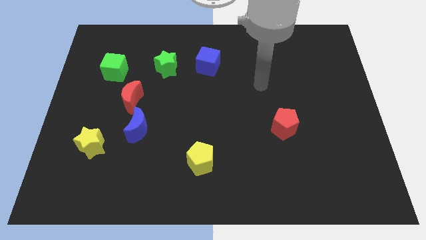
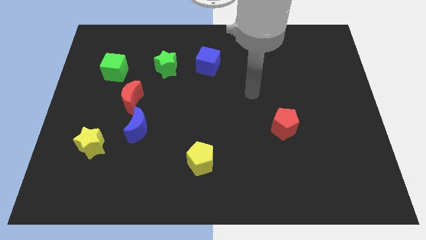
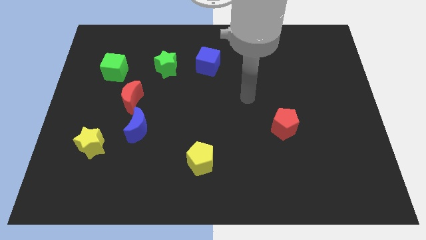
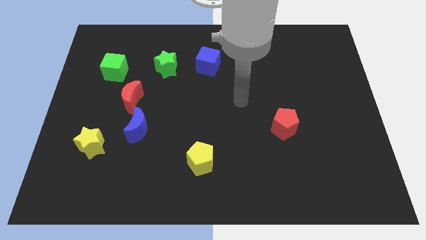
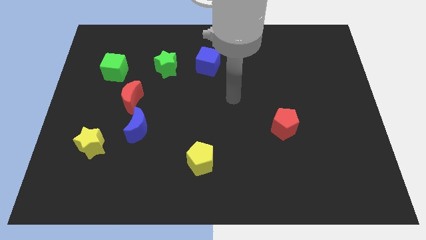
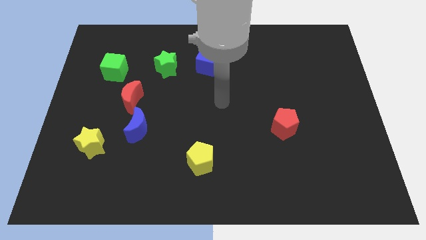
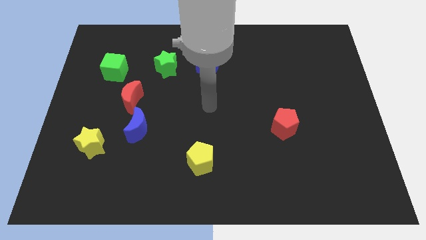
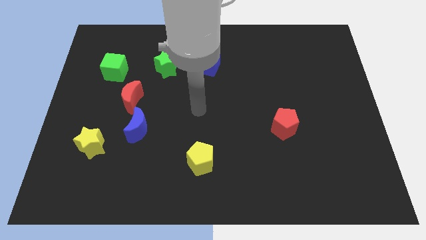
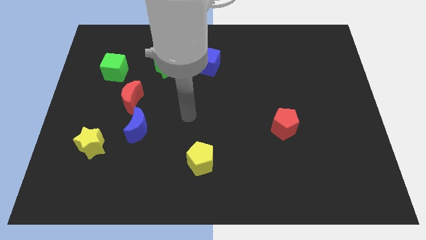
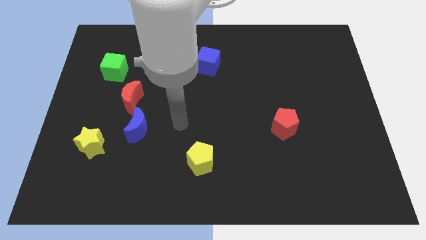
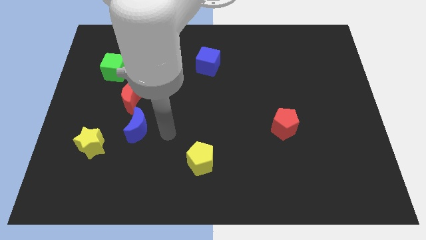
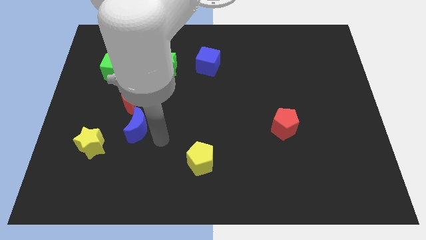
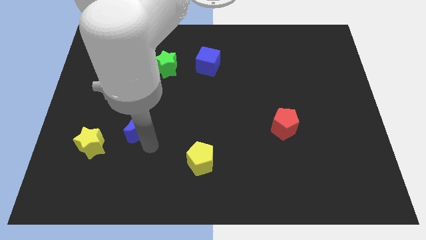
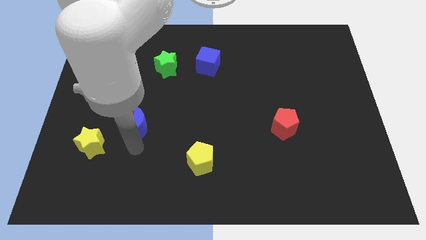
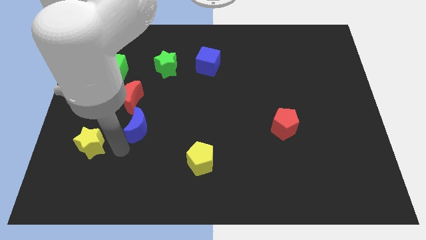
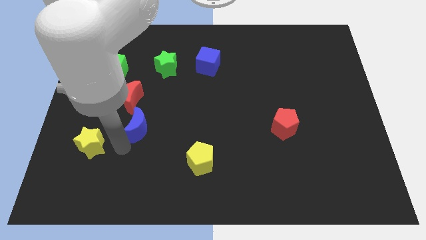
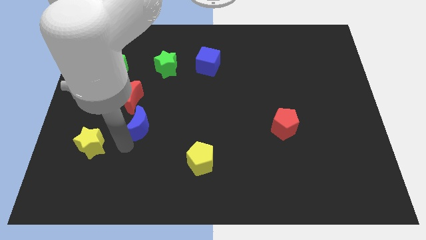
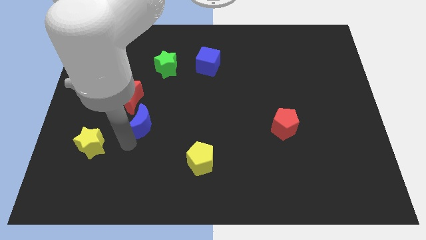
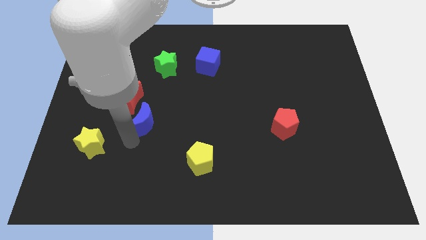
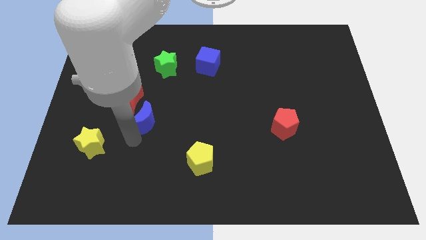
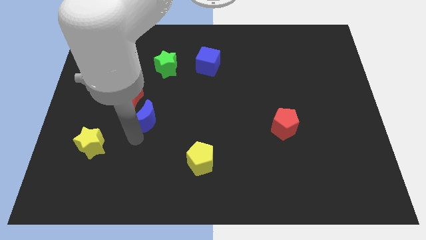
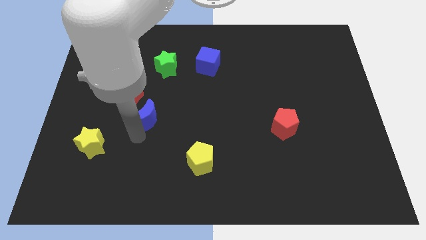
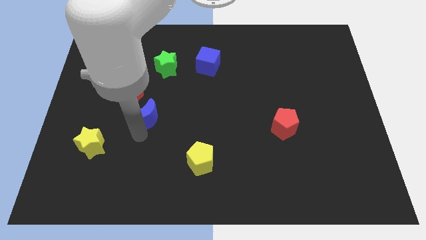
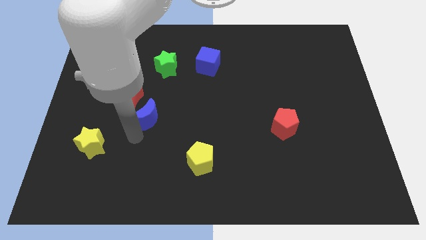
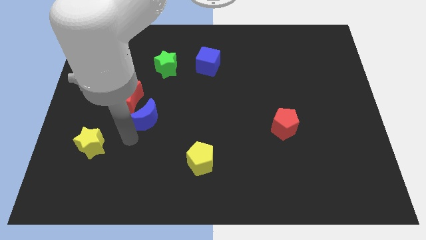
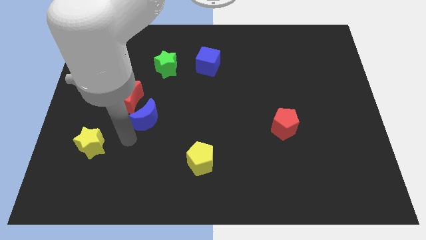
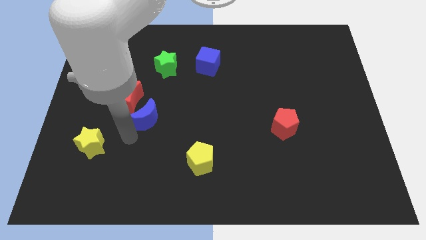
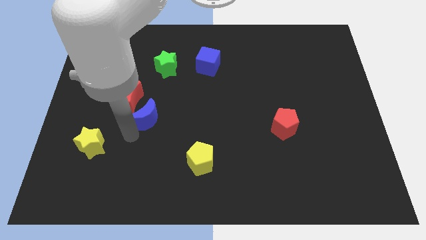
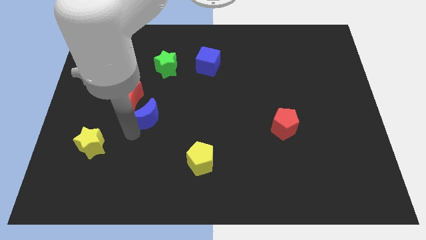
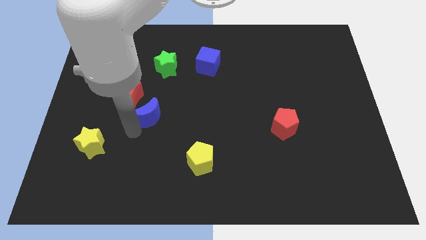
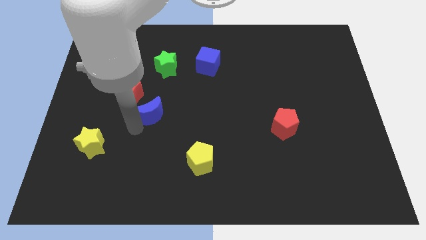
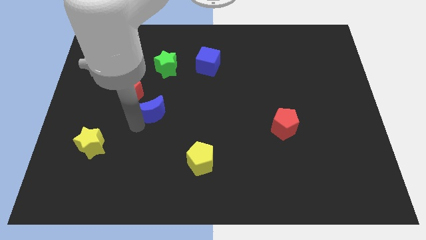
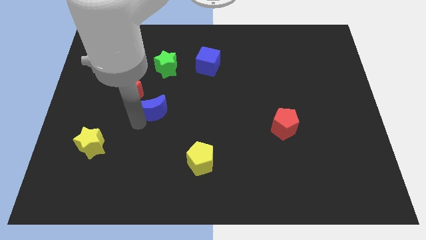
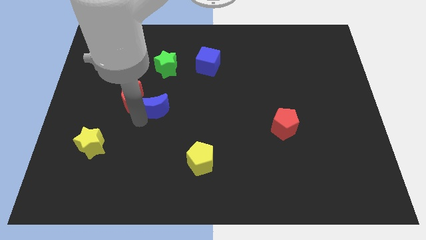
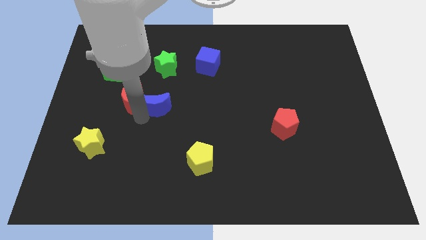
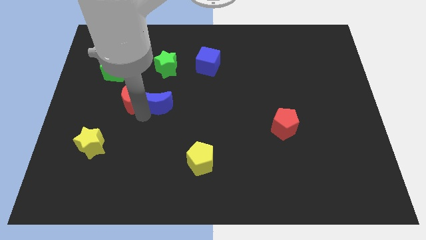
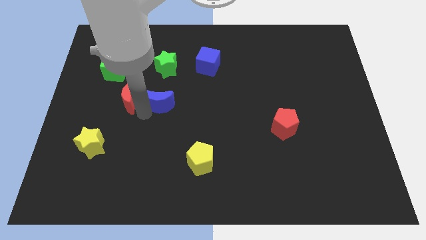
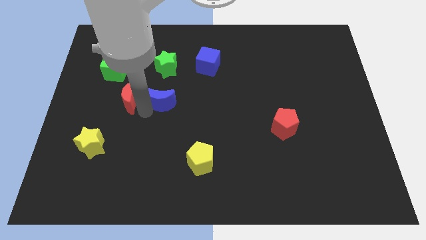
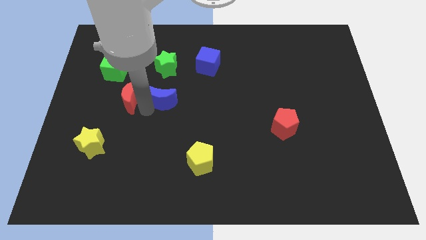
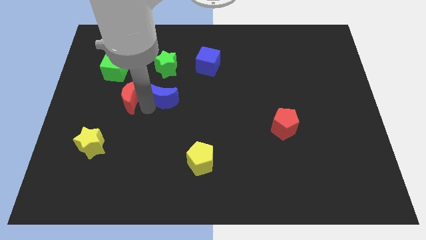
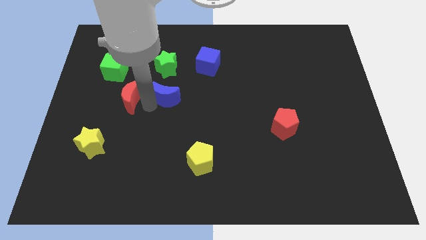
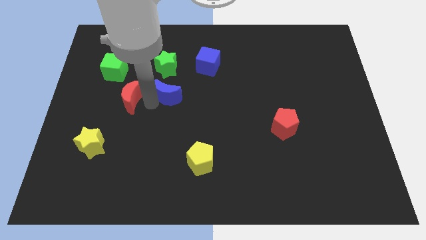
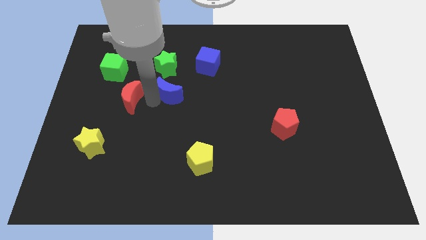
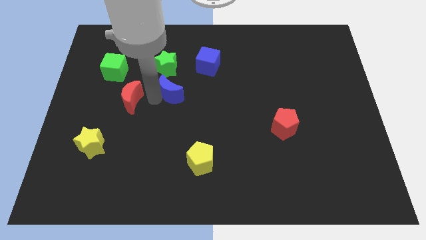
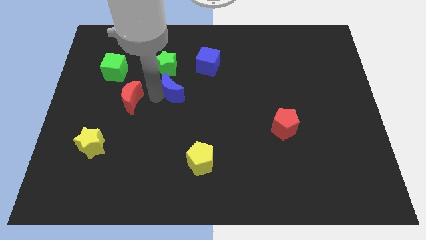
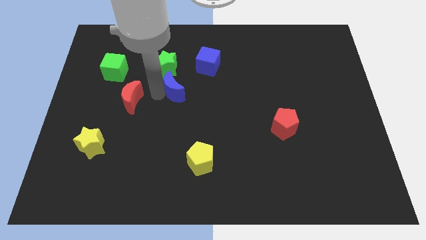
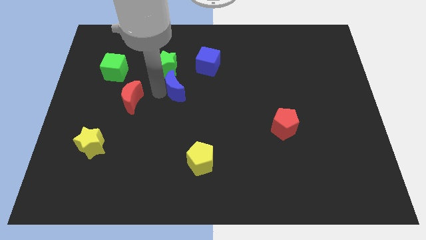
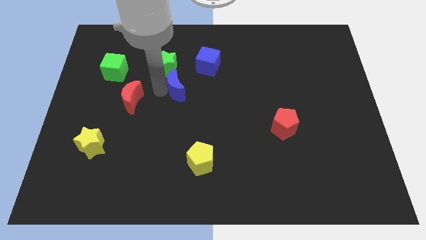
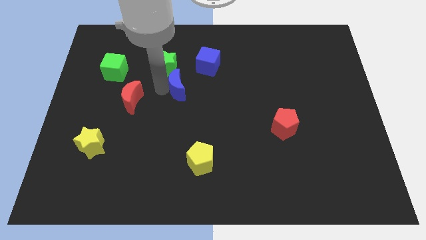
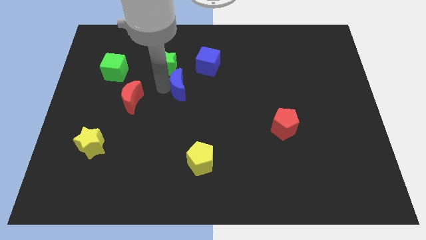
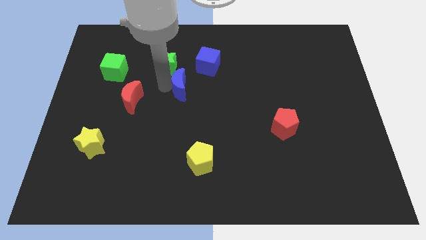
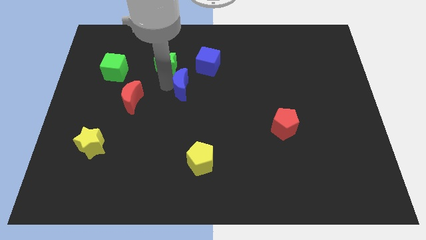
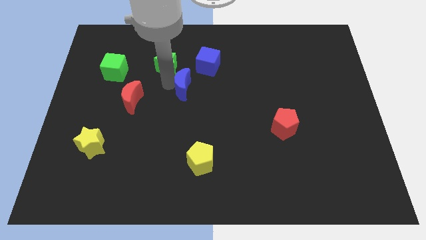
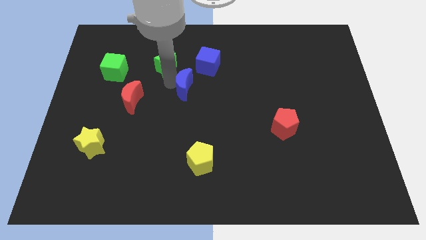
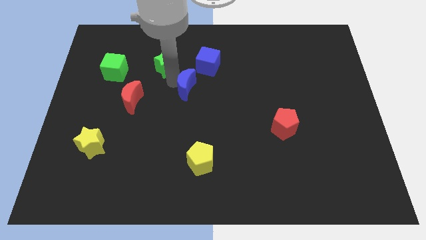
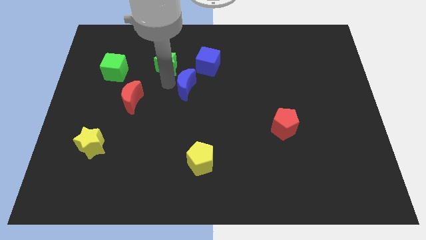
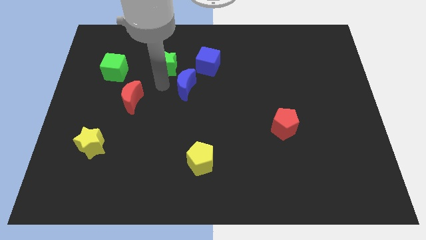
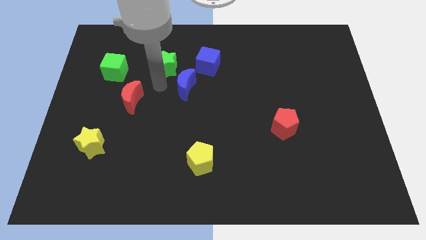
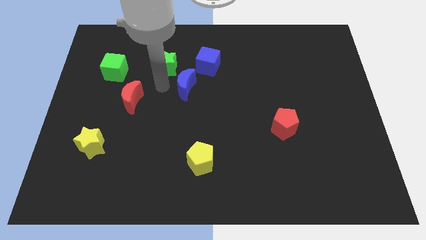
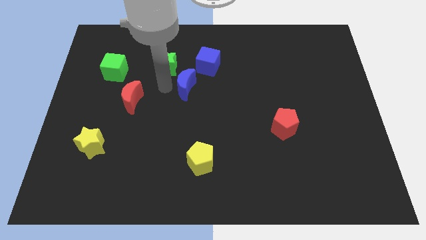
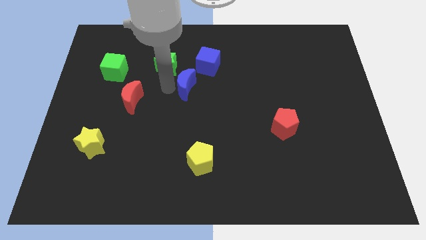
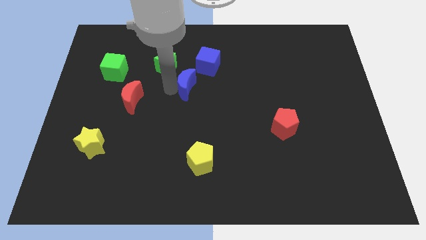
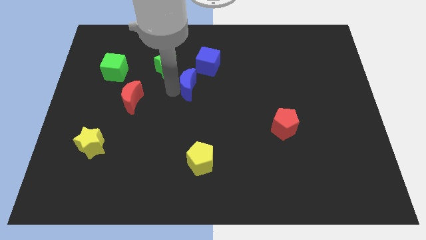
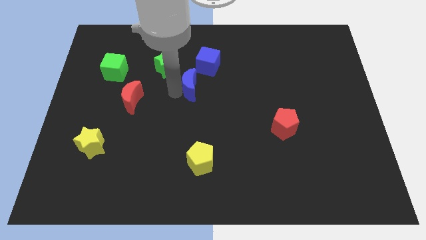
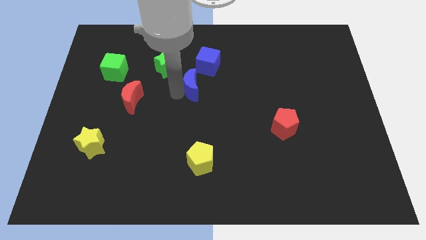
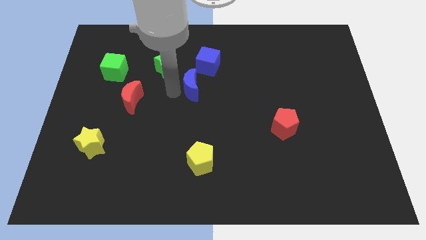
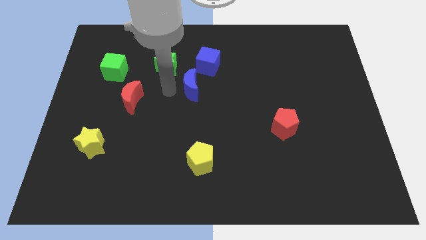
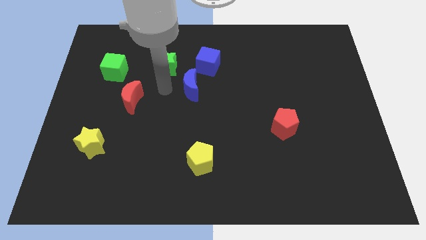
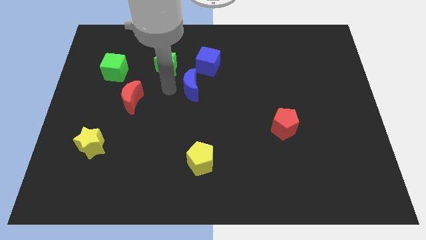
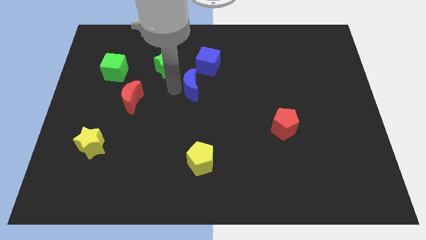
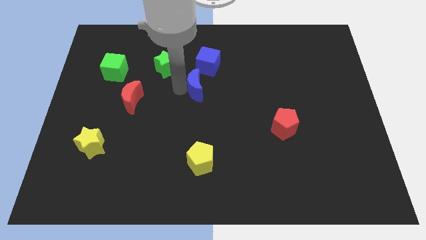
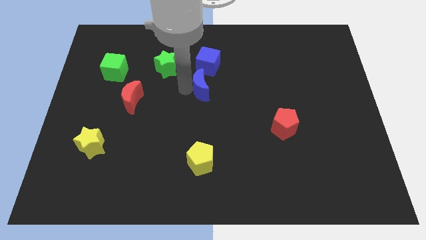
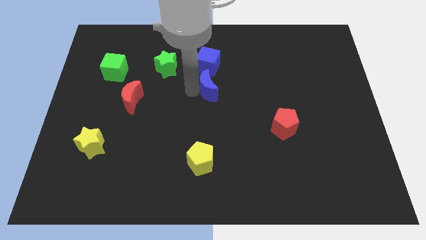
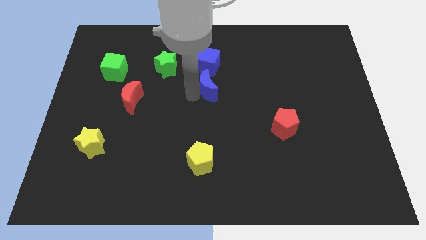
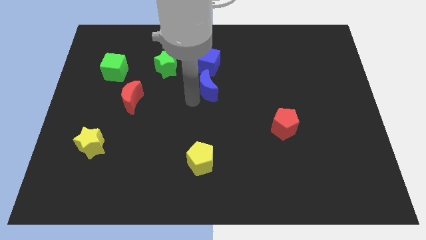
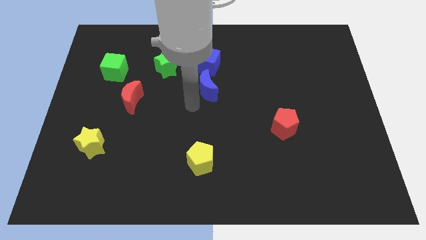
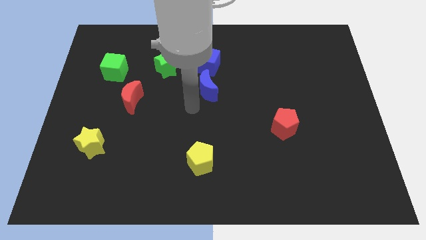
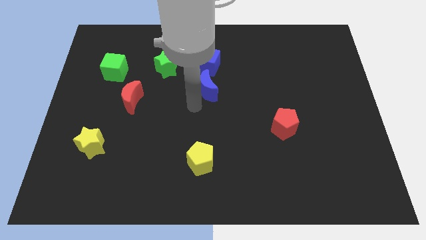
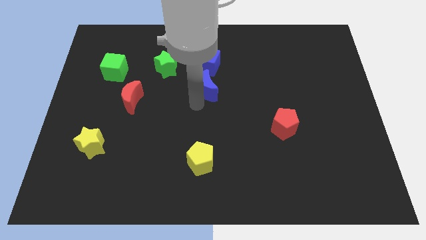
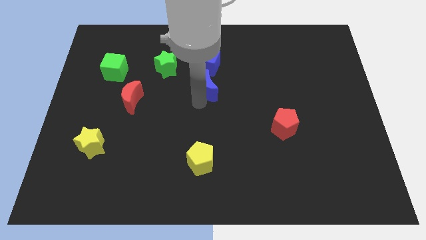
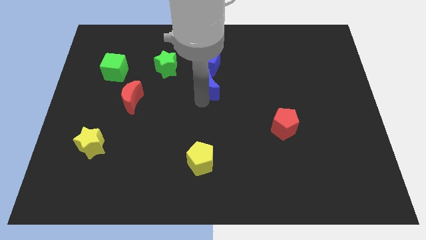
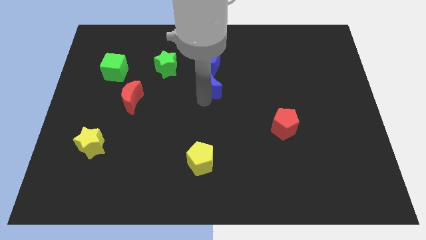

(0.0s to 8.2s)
move the blue moon upwards and right
